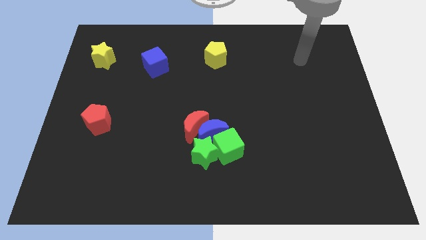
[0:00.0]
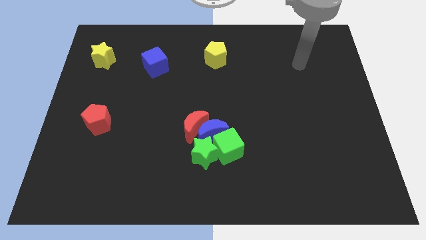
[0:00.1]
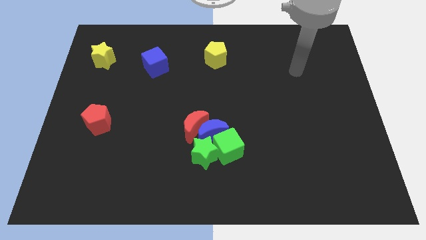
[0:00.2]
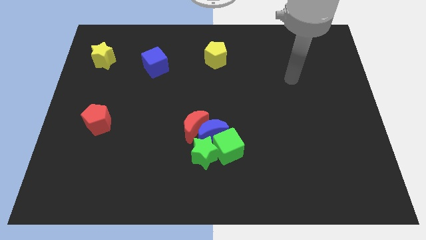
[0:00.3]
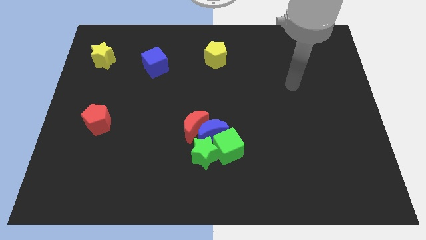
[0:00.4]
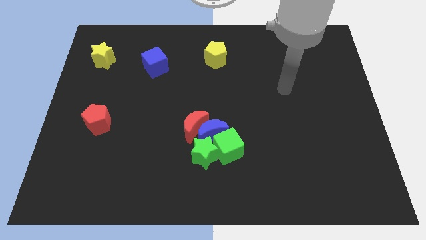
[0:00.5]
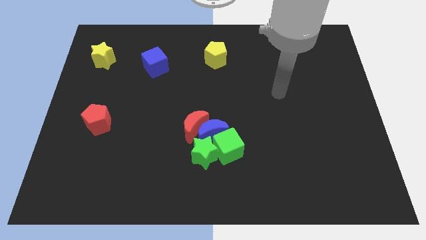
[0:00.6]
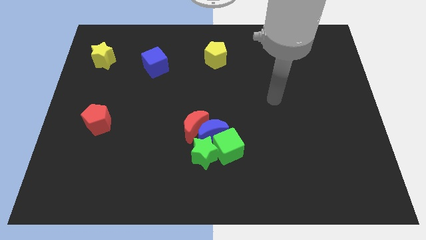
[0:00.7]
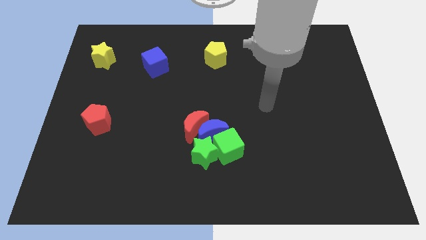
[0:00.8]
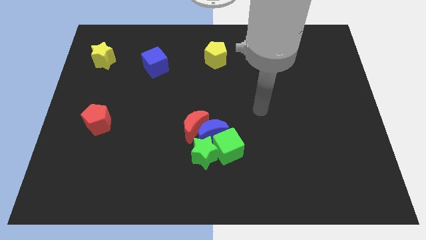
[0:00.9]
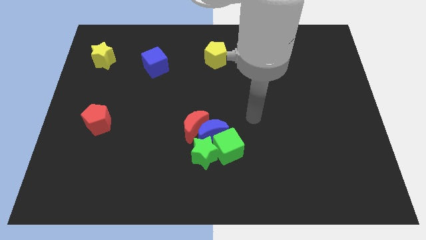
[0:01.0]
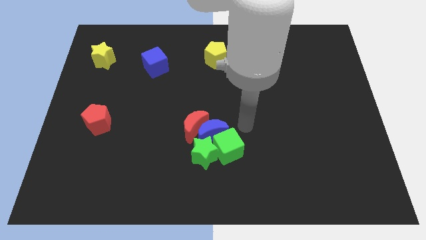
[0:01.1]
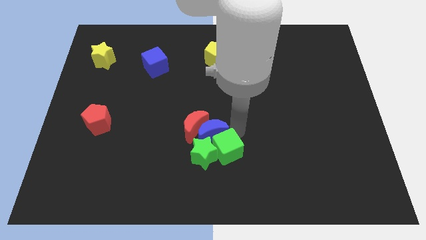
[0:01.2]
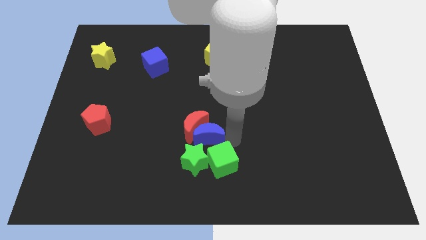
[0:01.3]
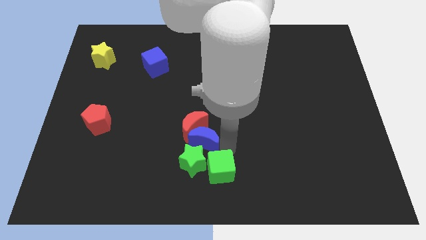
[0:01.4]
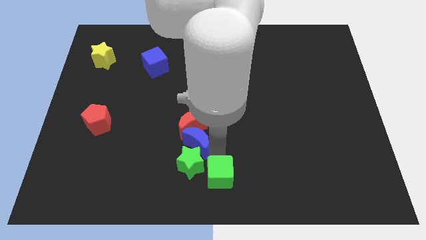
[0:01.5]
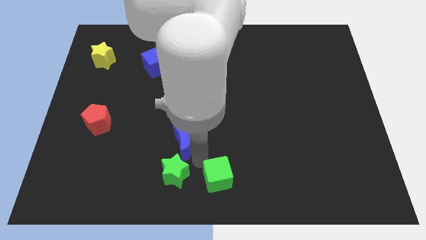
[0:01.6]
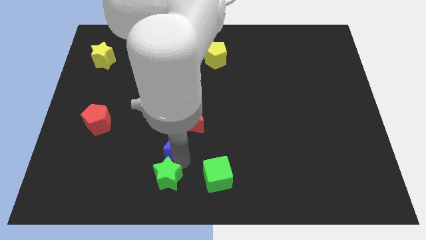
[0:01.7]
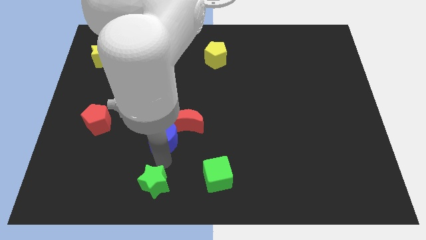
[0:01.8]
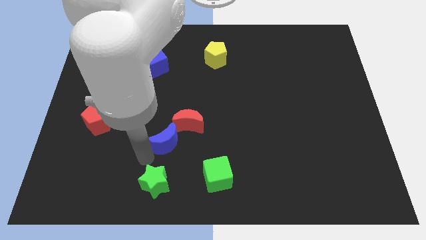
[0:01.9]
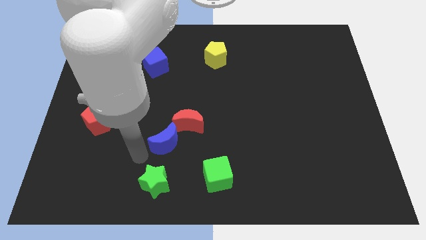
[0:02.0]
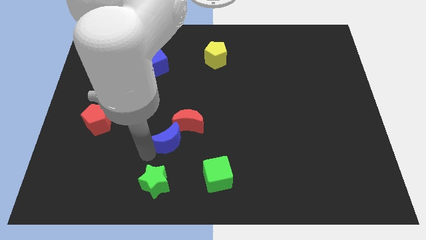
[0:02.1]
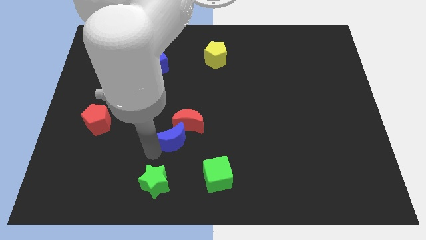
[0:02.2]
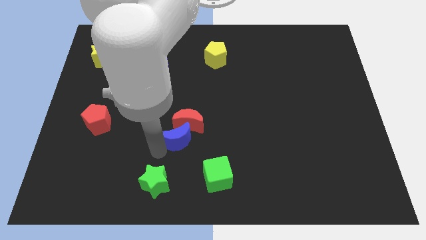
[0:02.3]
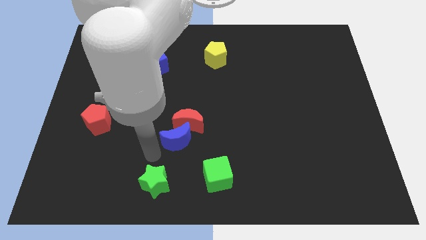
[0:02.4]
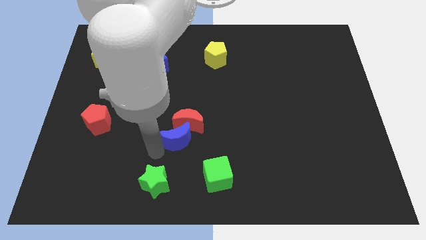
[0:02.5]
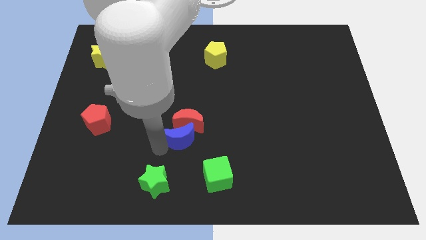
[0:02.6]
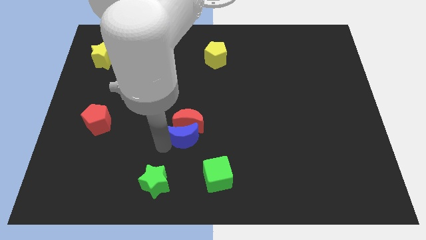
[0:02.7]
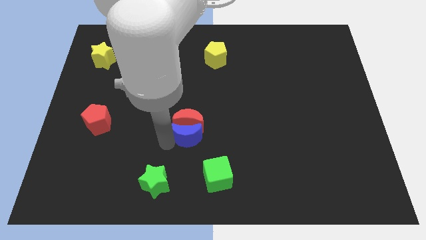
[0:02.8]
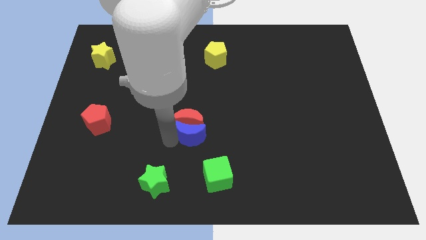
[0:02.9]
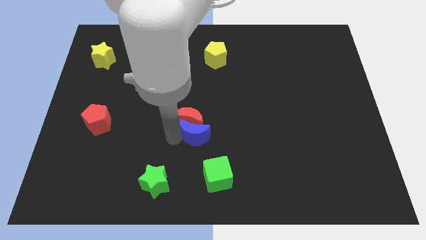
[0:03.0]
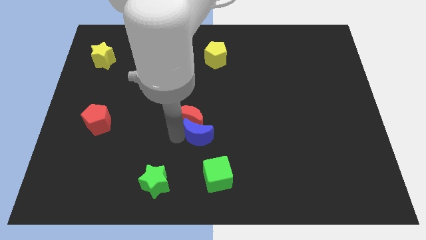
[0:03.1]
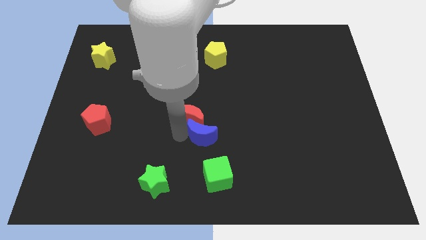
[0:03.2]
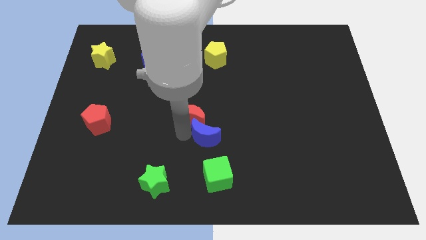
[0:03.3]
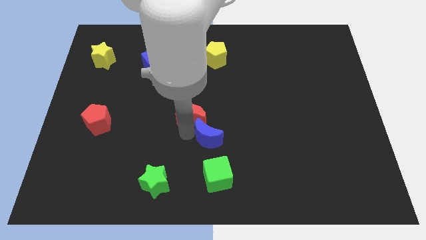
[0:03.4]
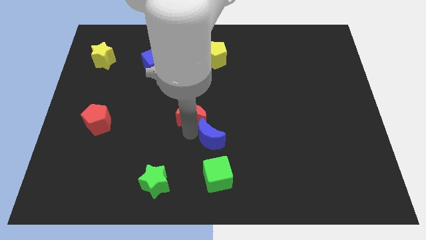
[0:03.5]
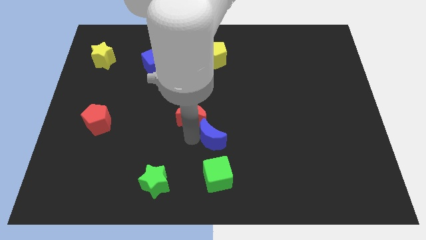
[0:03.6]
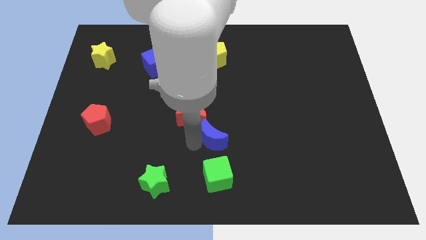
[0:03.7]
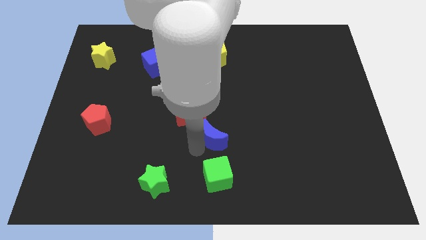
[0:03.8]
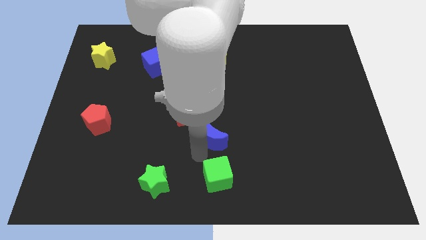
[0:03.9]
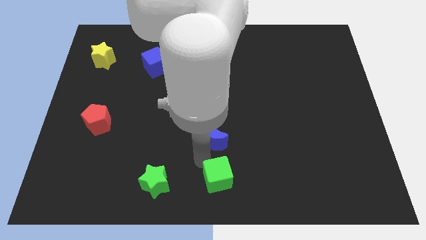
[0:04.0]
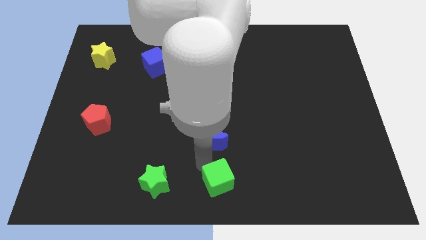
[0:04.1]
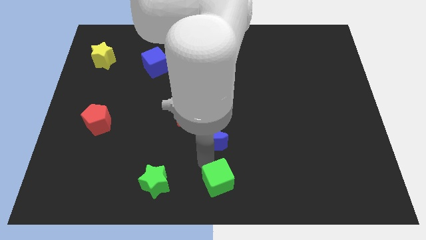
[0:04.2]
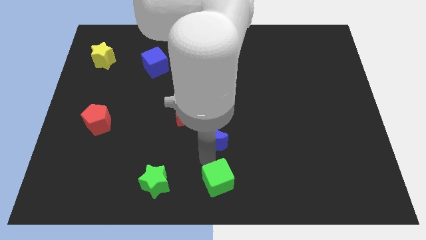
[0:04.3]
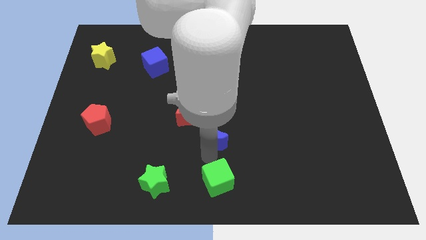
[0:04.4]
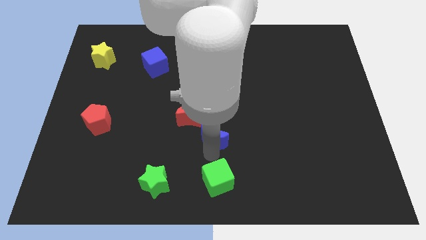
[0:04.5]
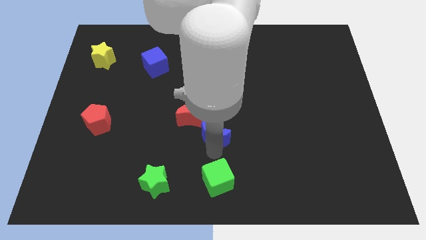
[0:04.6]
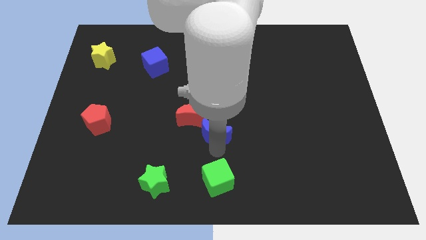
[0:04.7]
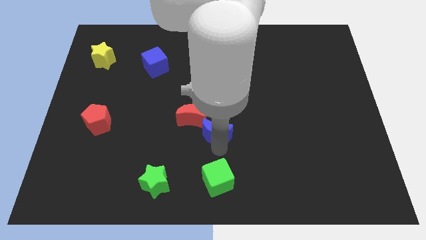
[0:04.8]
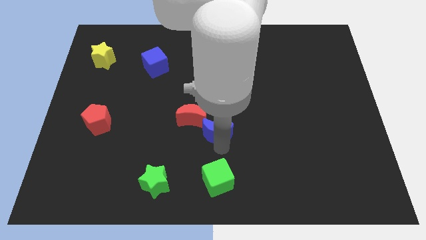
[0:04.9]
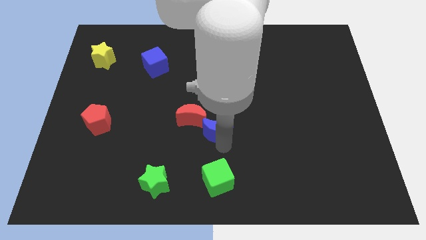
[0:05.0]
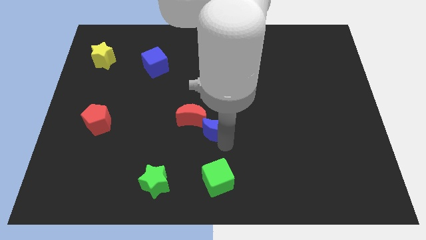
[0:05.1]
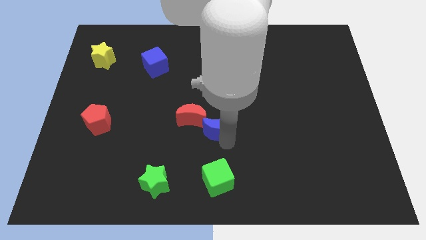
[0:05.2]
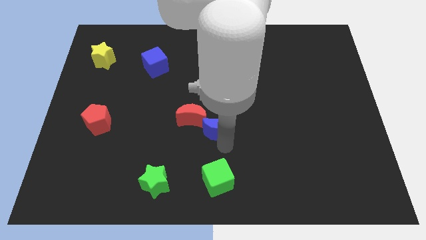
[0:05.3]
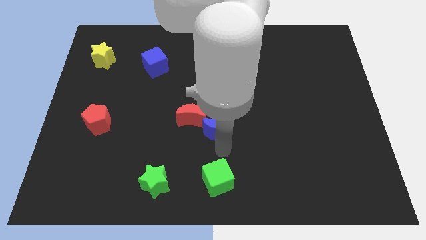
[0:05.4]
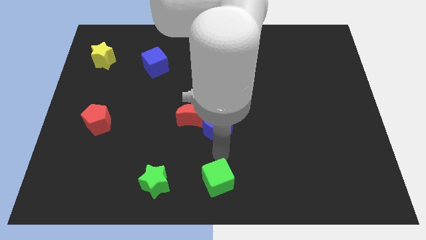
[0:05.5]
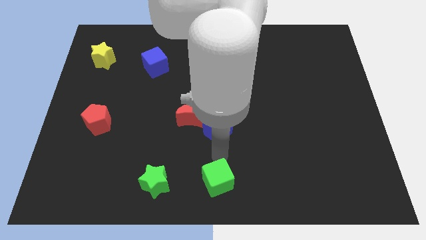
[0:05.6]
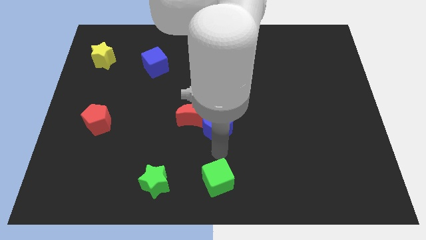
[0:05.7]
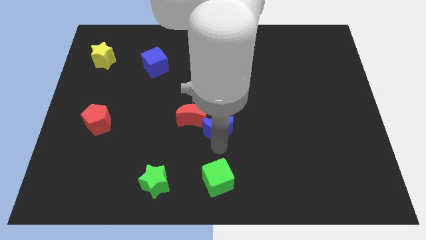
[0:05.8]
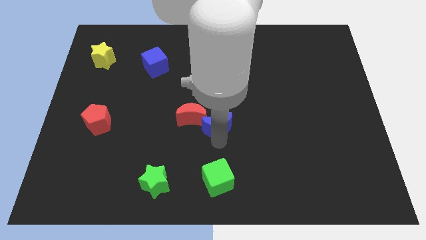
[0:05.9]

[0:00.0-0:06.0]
move the blue moon away from the red moon, green cube, and green star

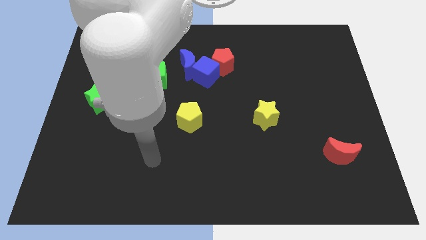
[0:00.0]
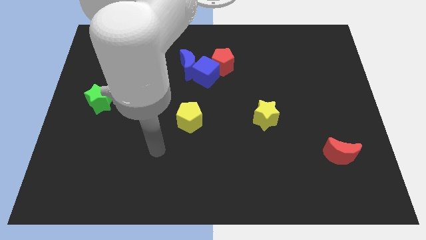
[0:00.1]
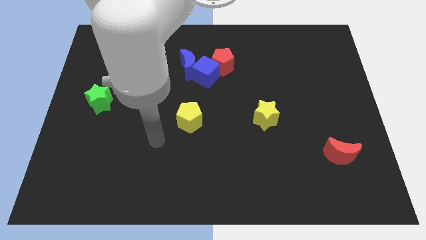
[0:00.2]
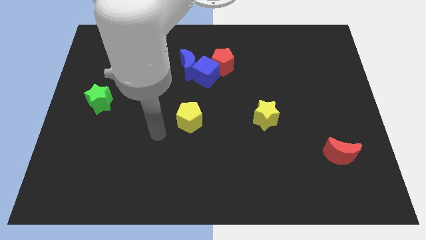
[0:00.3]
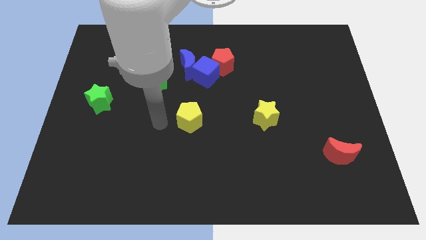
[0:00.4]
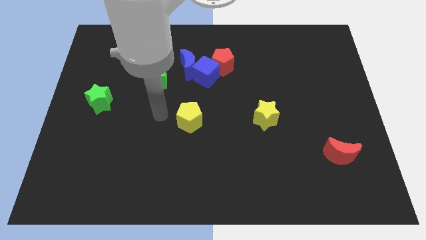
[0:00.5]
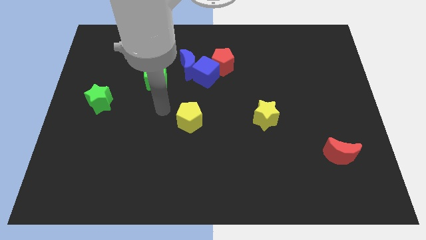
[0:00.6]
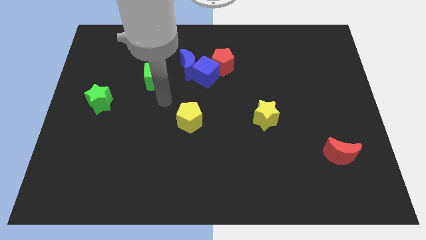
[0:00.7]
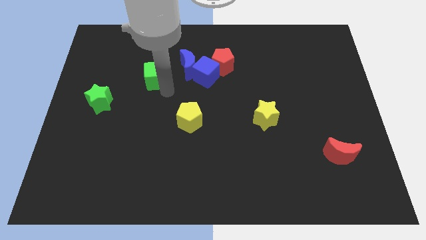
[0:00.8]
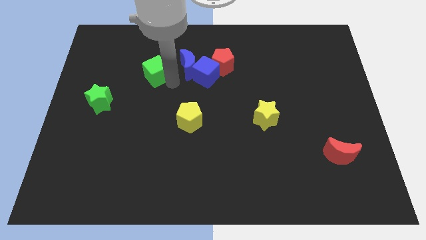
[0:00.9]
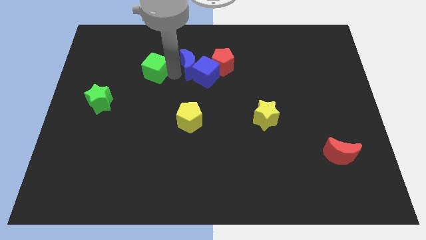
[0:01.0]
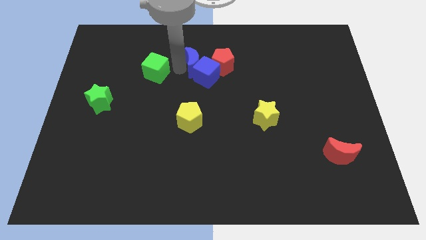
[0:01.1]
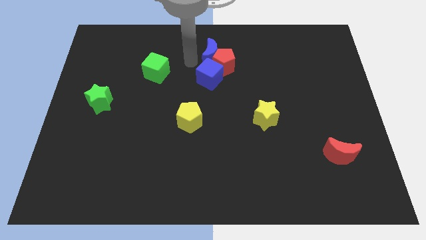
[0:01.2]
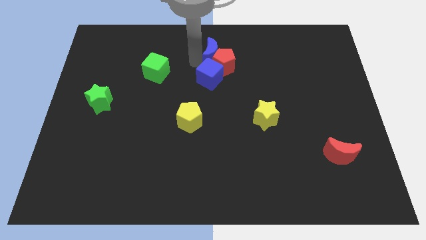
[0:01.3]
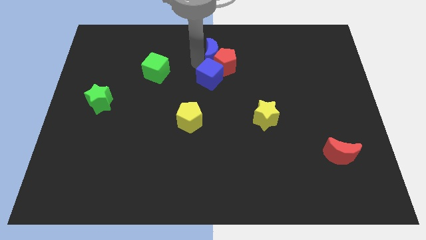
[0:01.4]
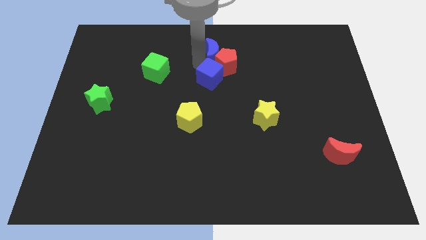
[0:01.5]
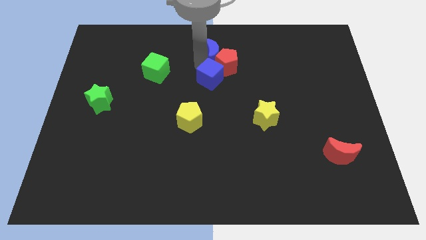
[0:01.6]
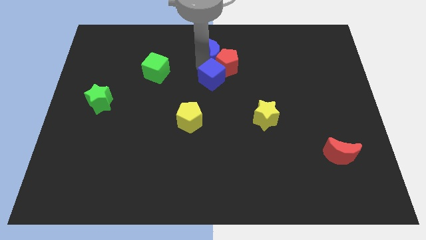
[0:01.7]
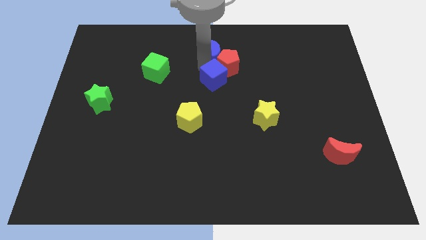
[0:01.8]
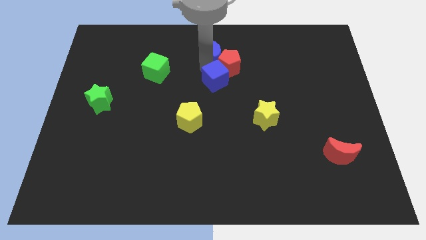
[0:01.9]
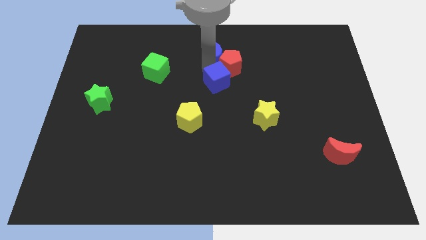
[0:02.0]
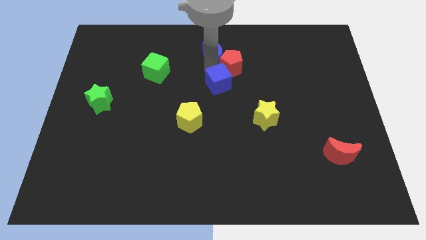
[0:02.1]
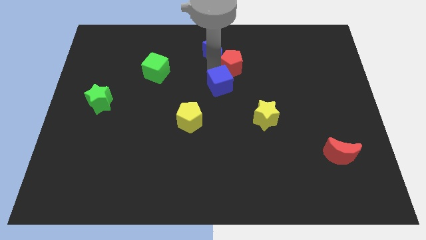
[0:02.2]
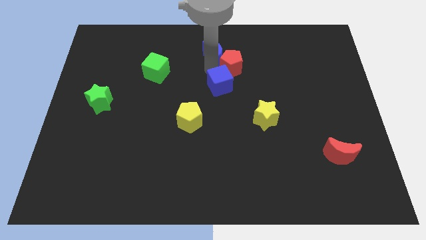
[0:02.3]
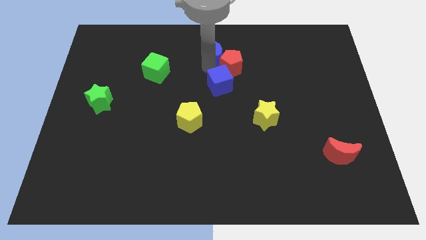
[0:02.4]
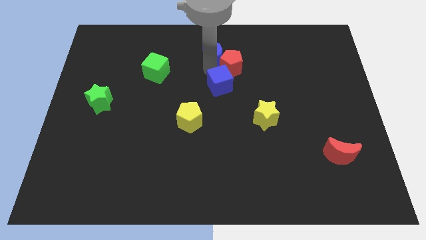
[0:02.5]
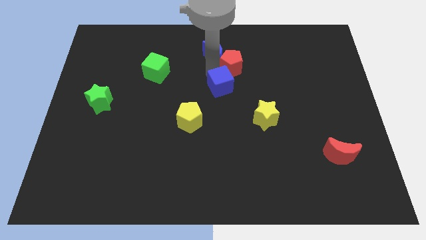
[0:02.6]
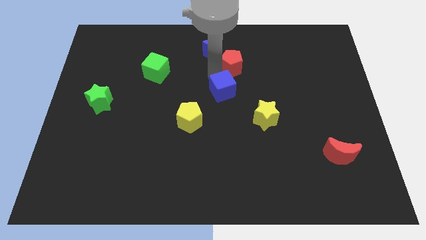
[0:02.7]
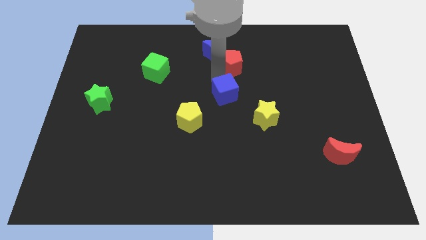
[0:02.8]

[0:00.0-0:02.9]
pull the blue cube apart from the blue moon and red pentagon

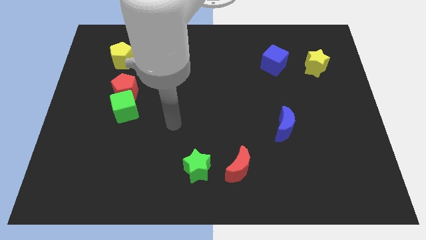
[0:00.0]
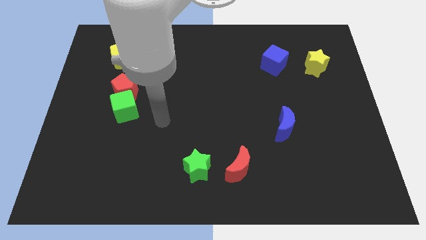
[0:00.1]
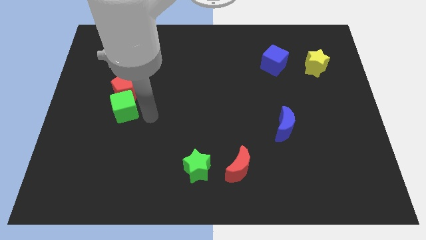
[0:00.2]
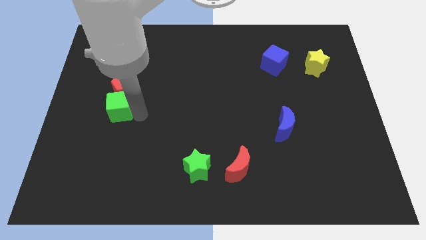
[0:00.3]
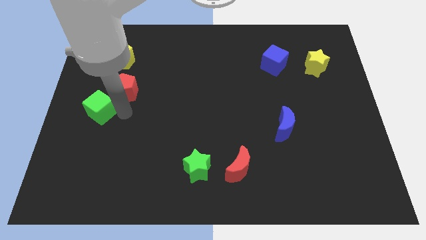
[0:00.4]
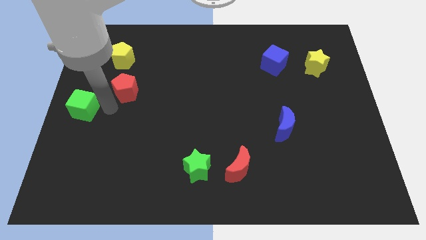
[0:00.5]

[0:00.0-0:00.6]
move the red pentagon away from the green cube
